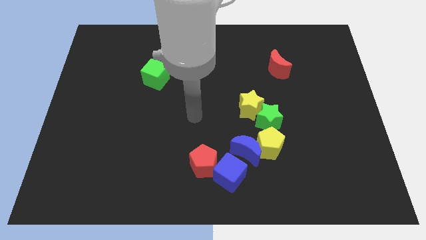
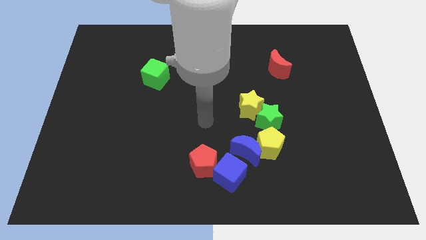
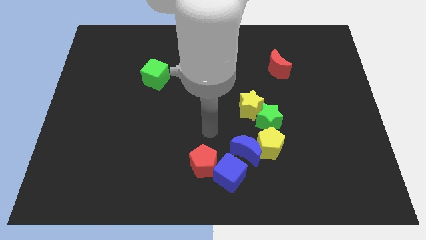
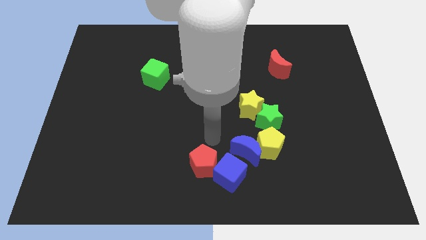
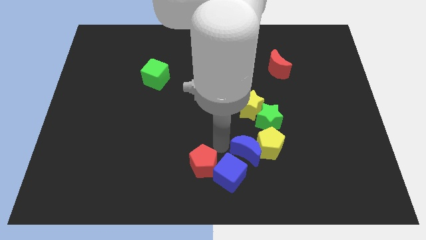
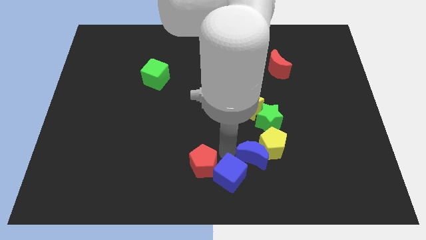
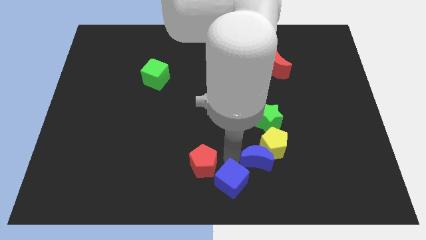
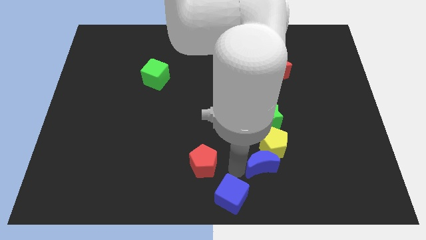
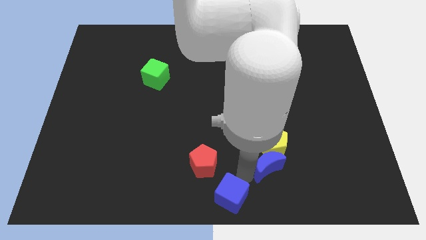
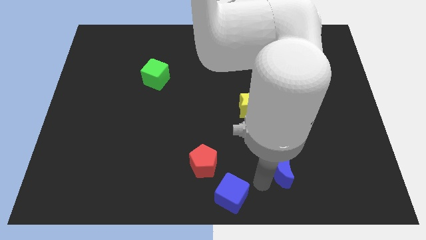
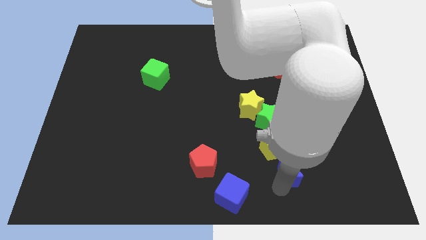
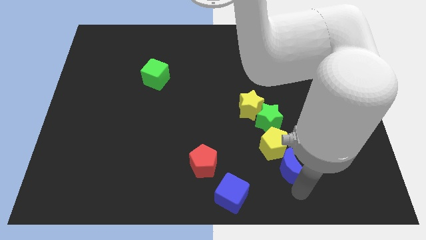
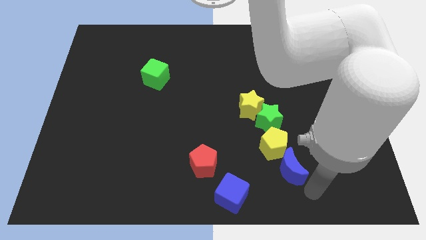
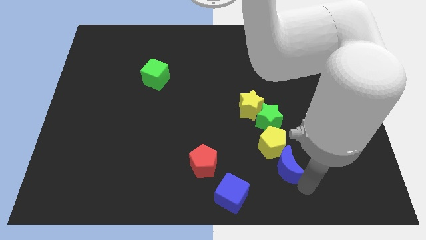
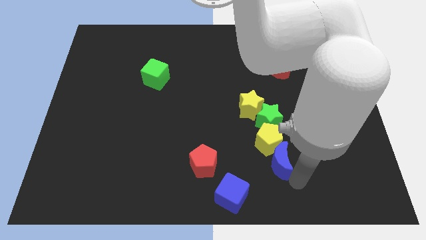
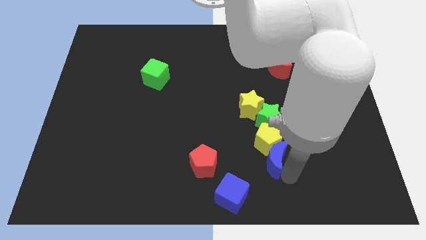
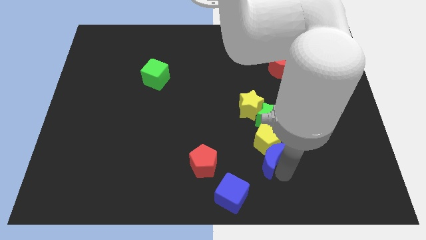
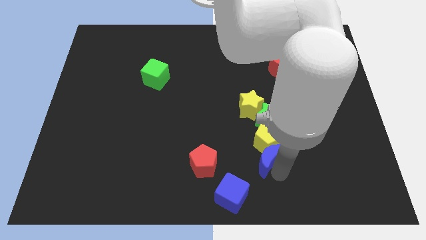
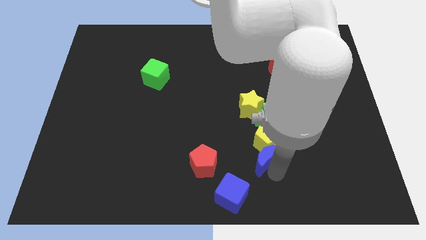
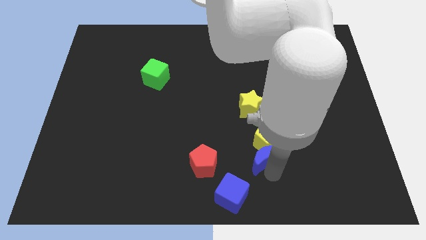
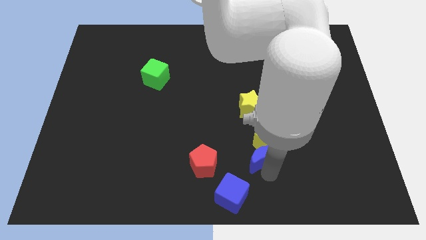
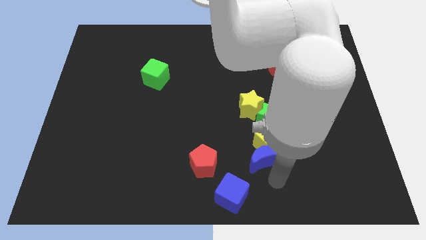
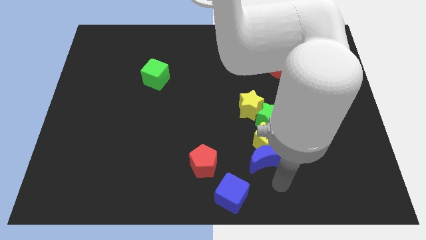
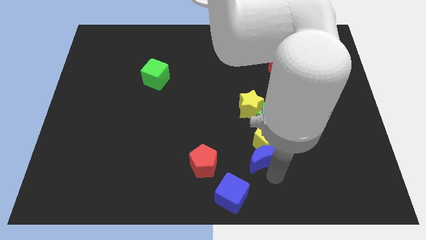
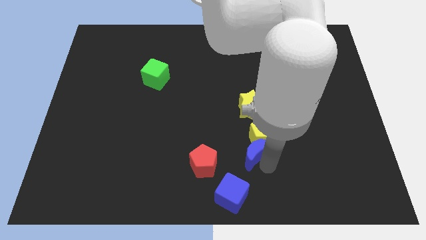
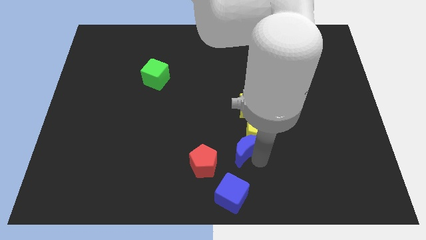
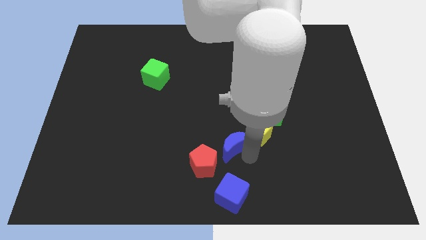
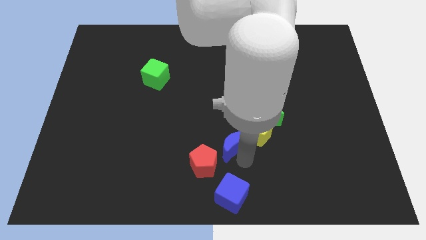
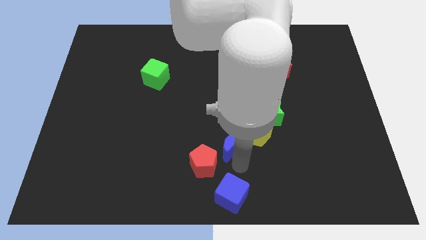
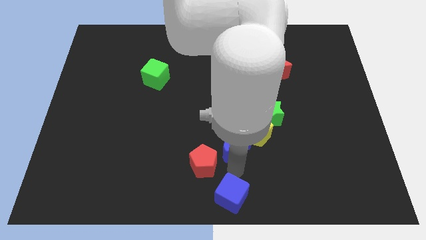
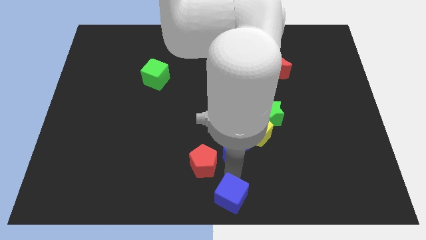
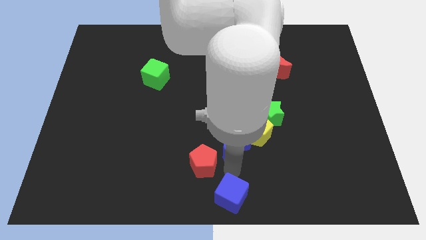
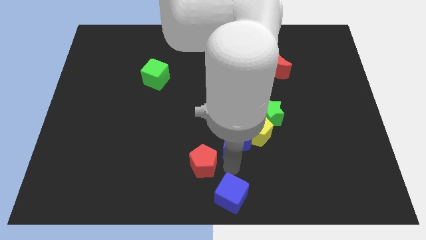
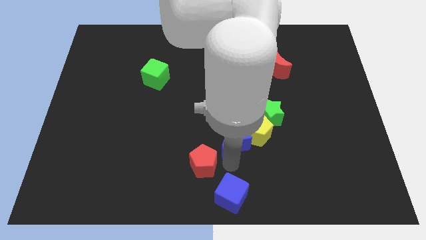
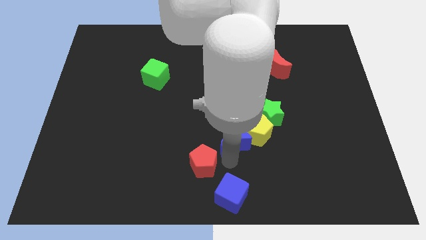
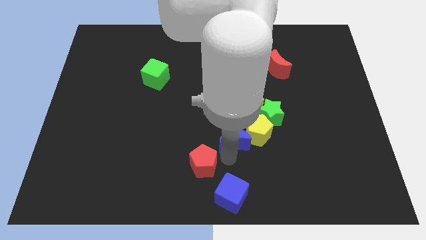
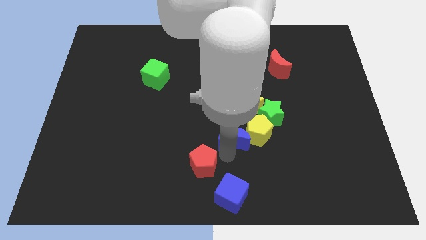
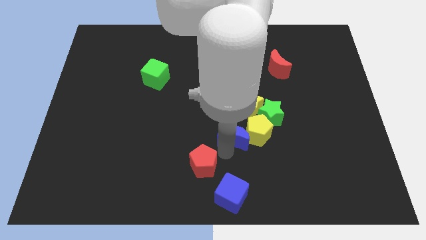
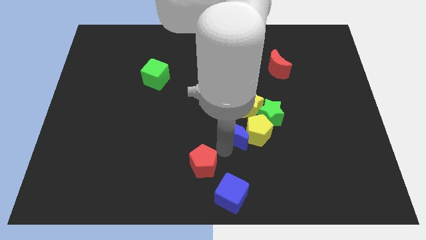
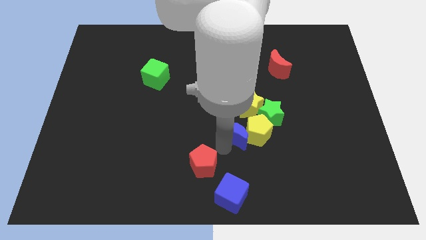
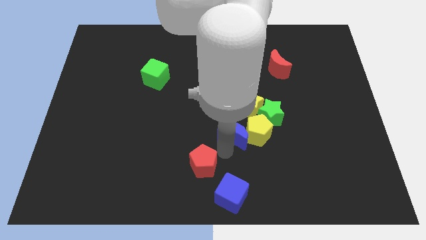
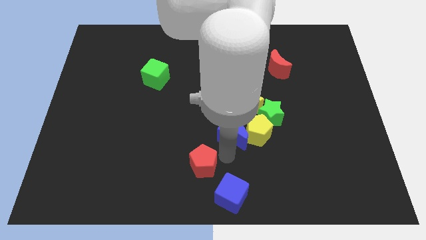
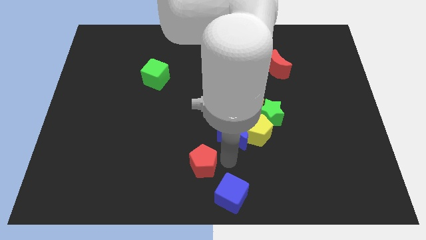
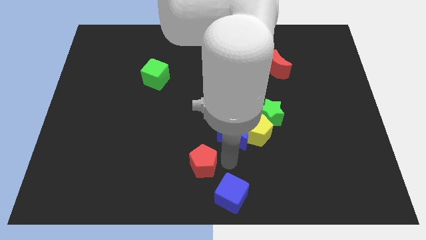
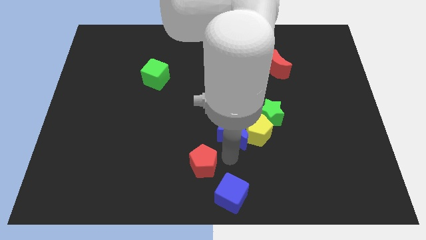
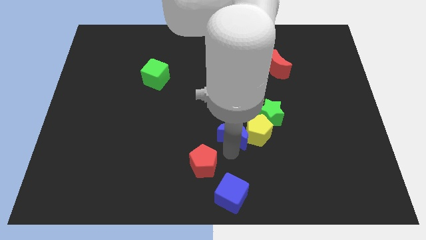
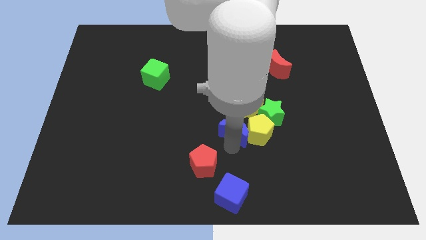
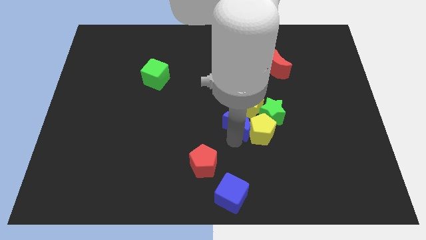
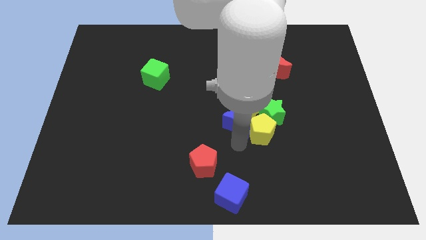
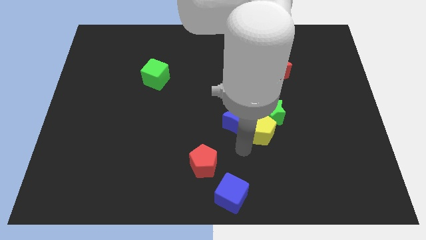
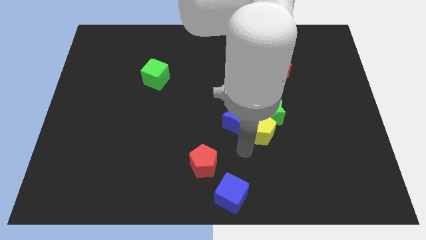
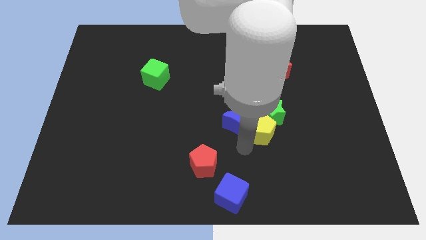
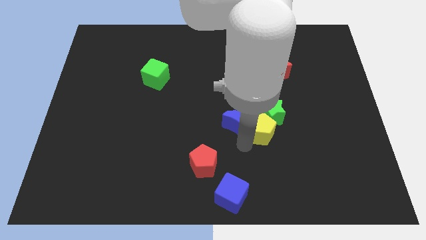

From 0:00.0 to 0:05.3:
push the blue moon somewhat up

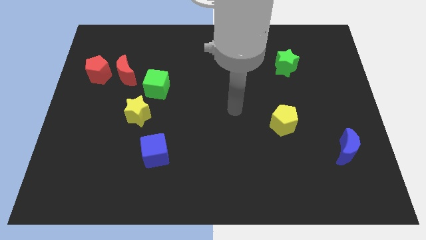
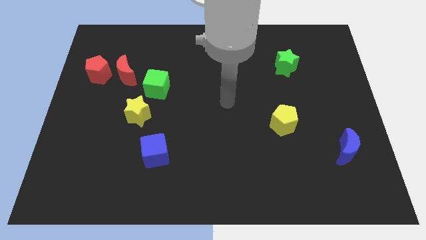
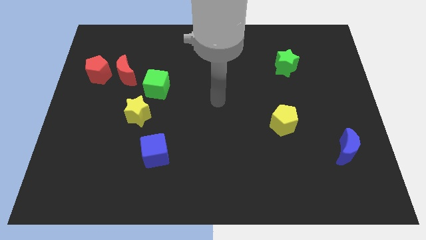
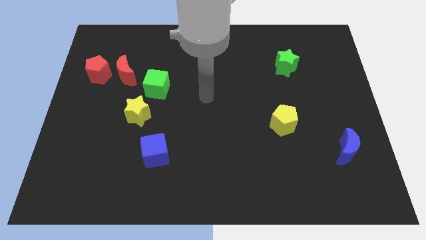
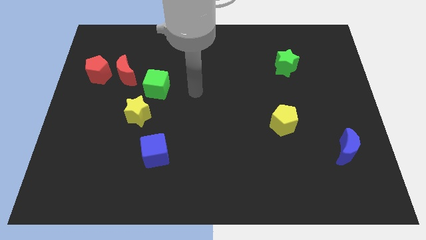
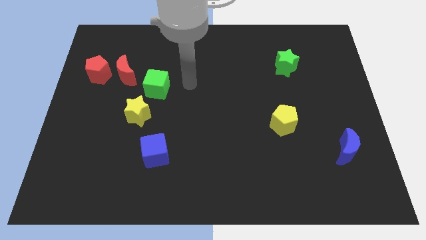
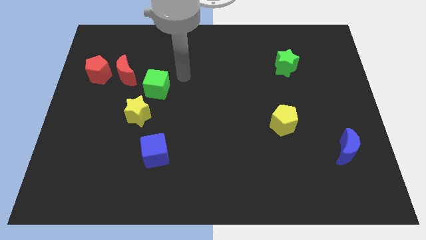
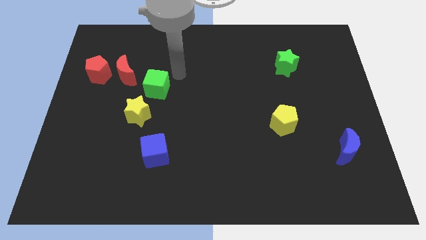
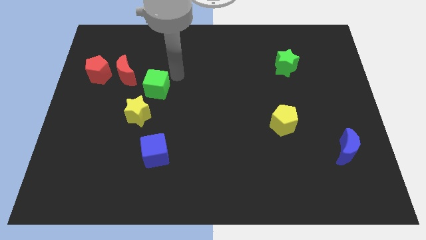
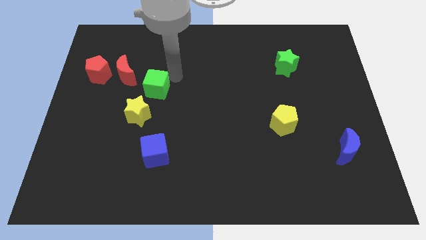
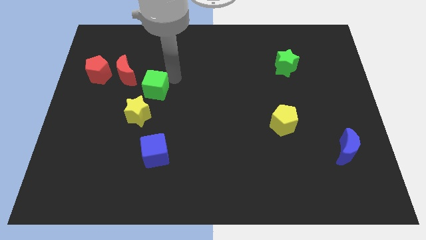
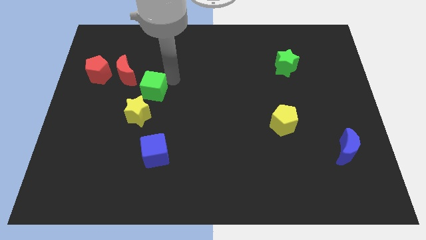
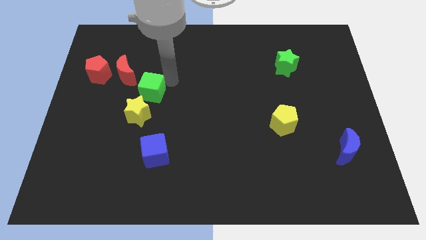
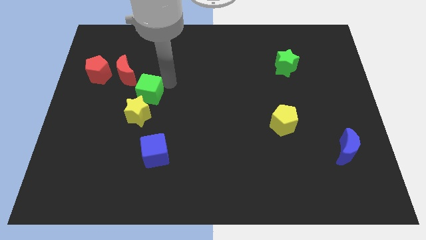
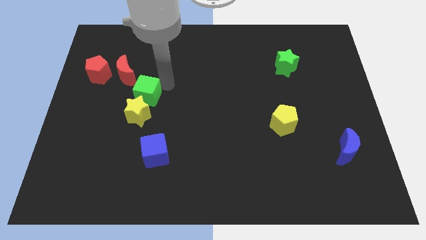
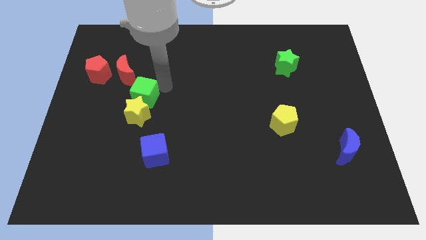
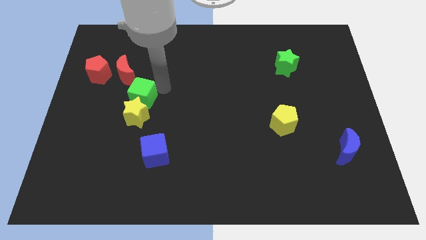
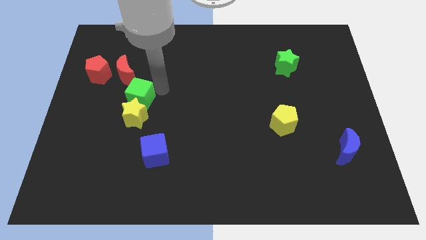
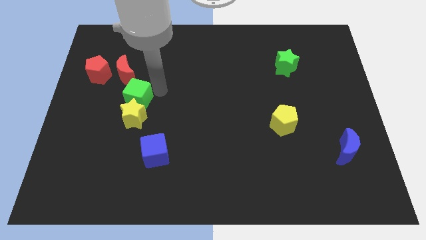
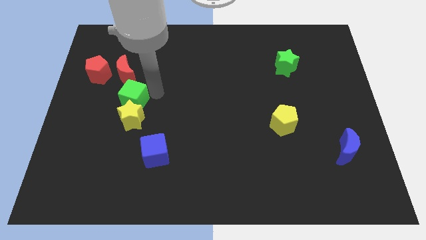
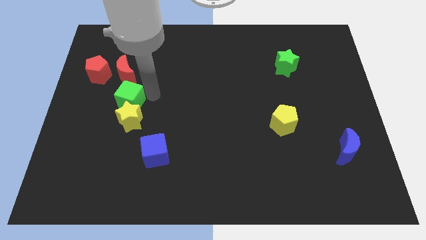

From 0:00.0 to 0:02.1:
slightly slide the green cube down and to the left diagonally

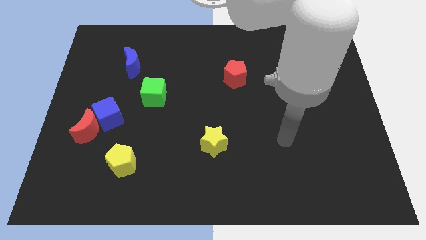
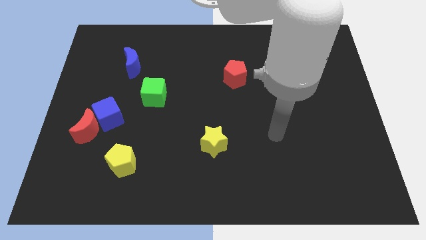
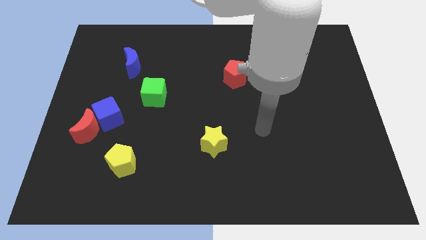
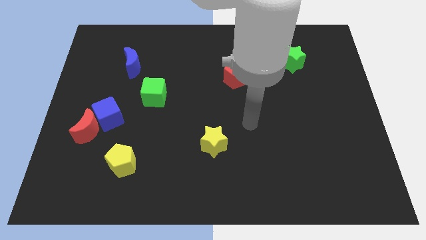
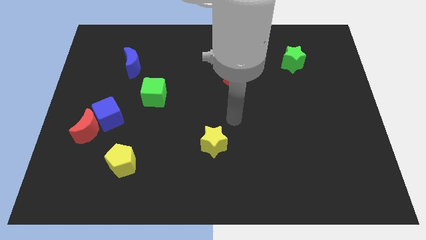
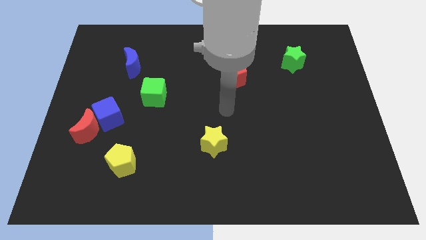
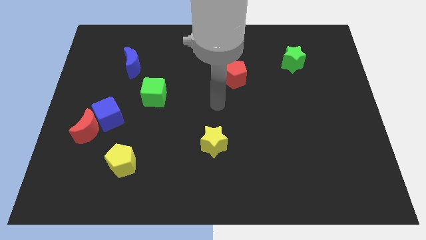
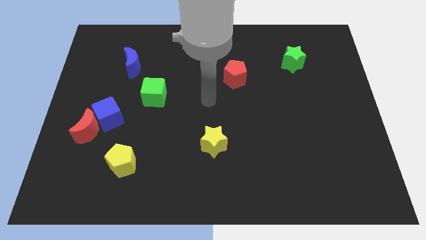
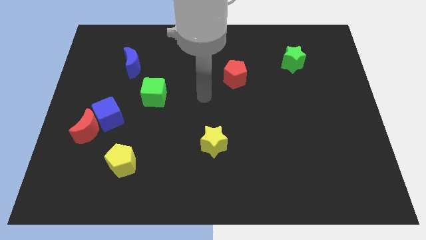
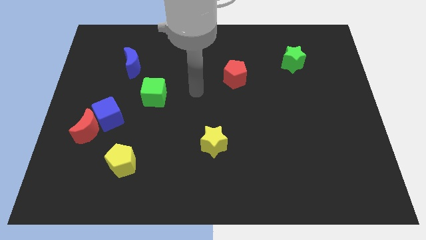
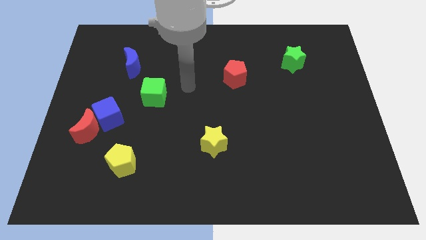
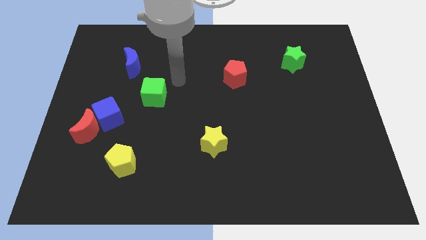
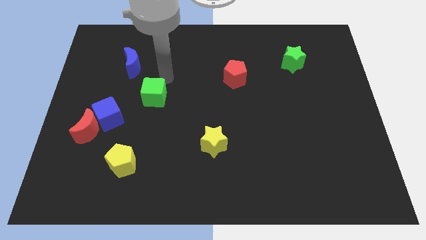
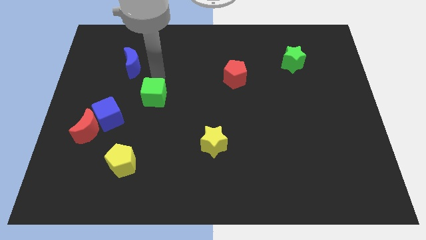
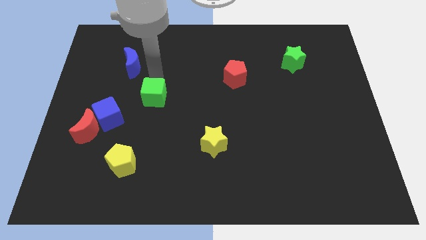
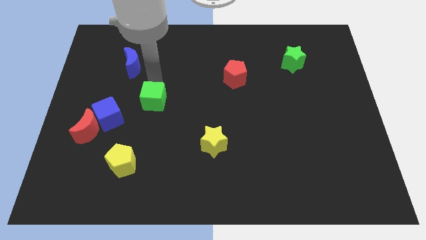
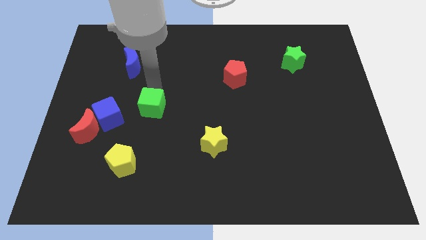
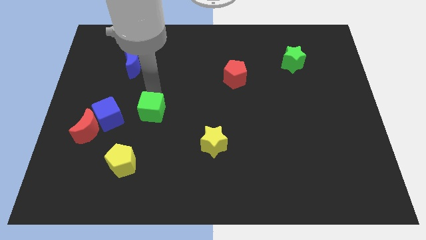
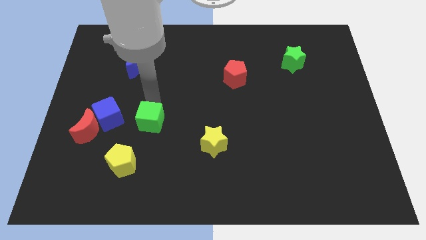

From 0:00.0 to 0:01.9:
slightly slide the green cube down
